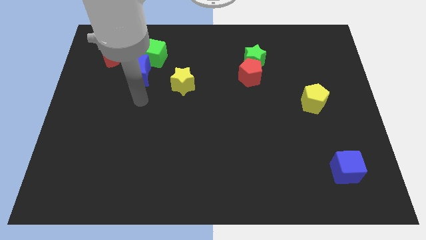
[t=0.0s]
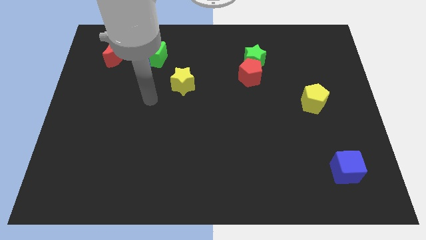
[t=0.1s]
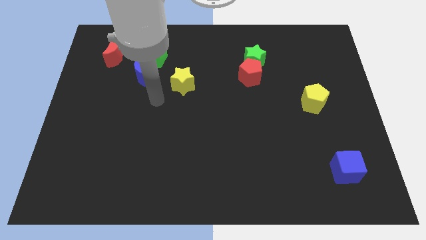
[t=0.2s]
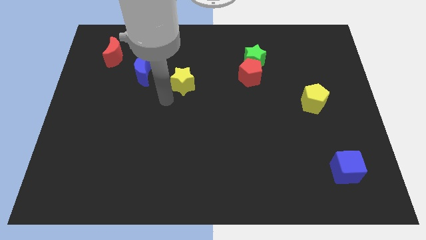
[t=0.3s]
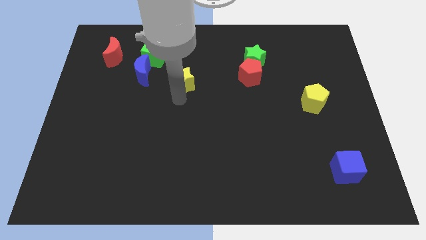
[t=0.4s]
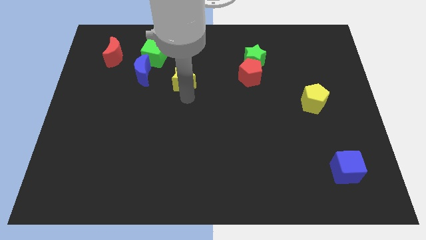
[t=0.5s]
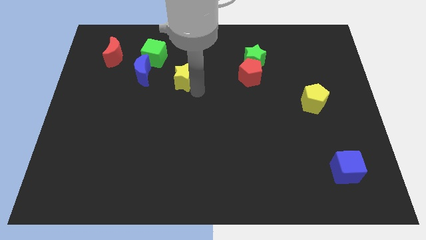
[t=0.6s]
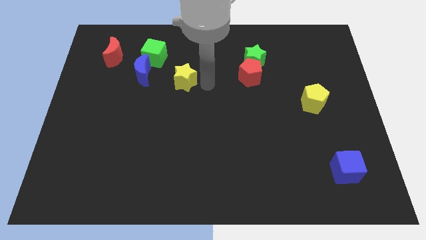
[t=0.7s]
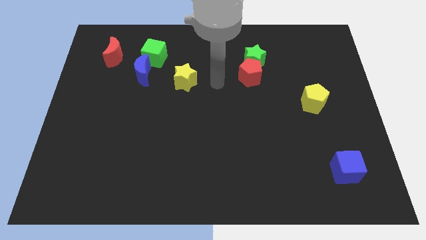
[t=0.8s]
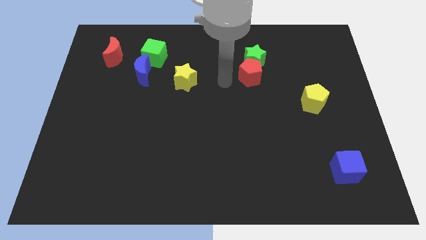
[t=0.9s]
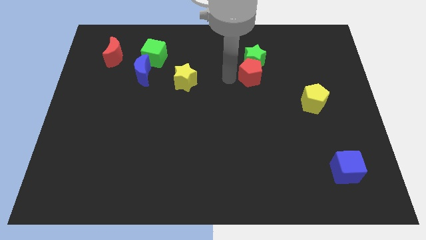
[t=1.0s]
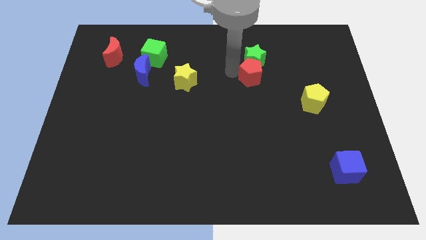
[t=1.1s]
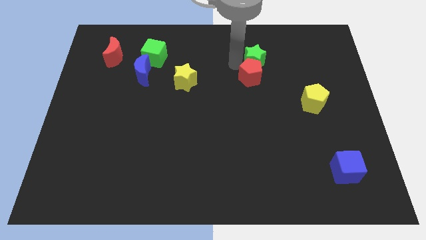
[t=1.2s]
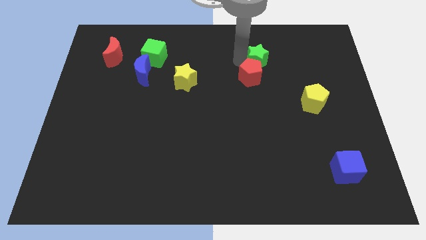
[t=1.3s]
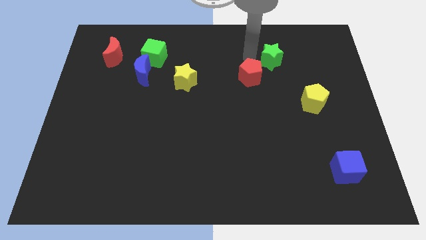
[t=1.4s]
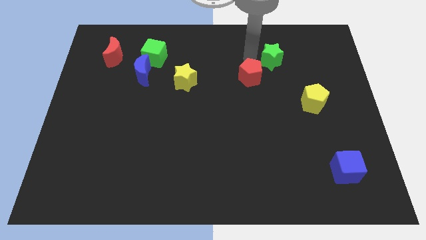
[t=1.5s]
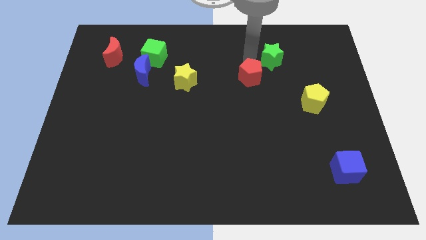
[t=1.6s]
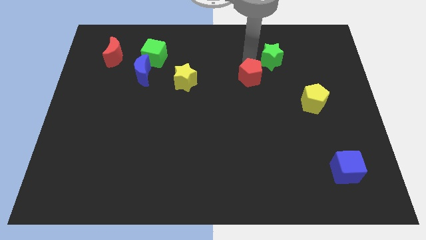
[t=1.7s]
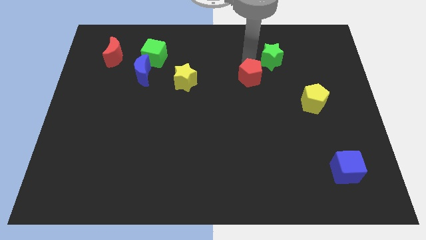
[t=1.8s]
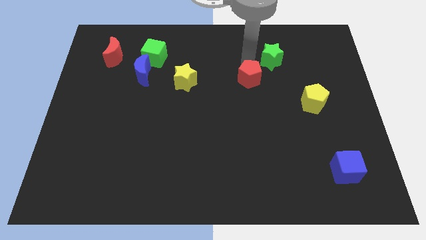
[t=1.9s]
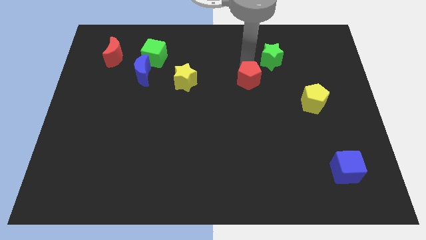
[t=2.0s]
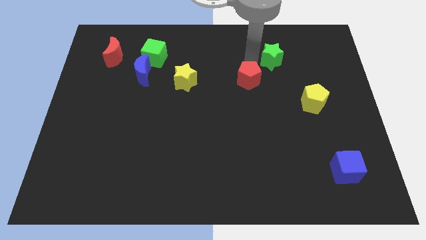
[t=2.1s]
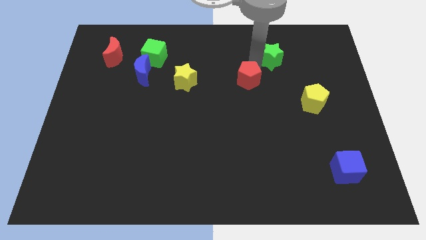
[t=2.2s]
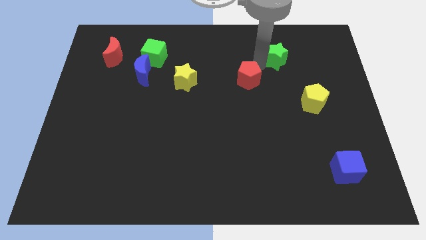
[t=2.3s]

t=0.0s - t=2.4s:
separate the red pentagon from the green star

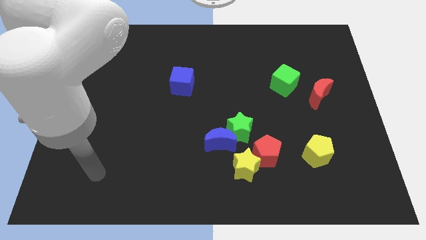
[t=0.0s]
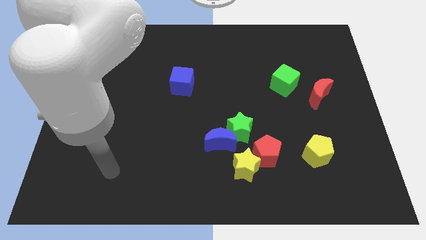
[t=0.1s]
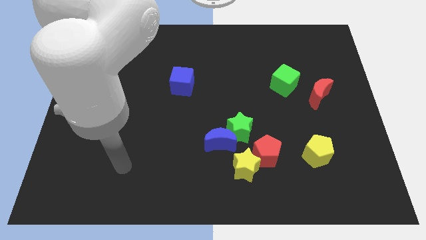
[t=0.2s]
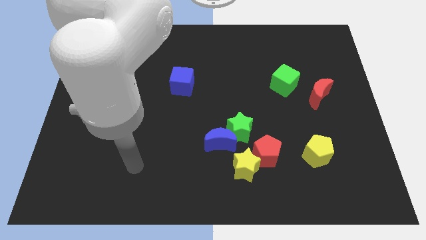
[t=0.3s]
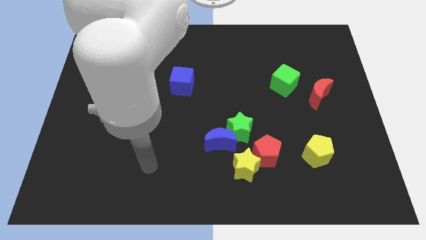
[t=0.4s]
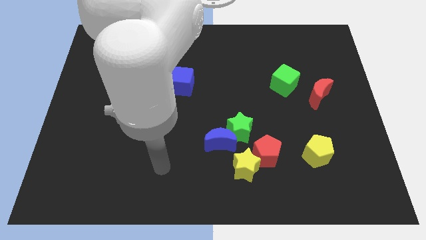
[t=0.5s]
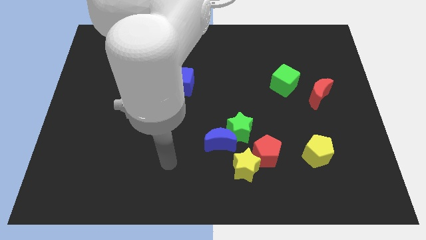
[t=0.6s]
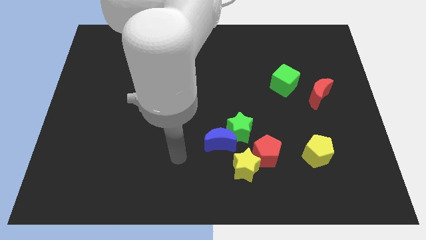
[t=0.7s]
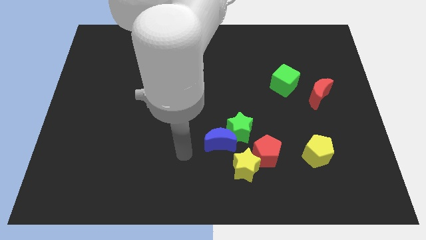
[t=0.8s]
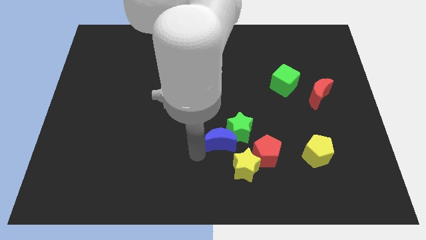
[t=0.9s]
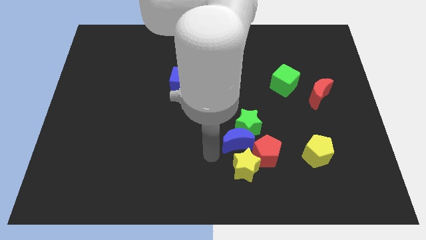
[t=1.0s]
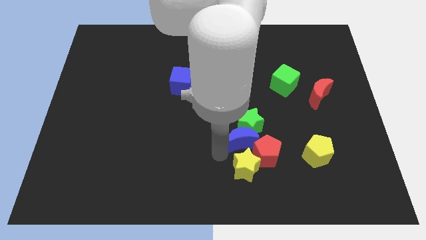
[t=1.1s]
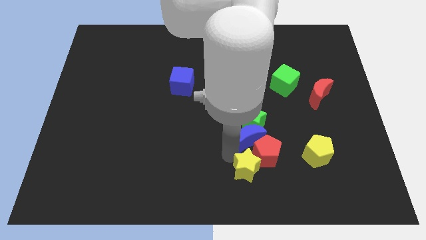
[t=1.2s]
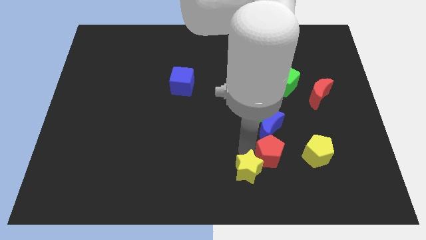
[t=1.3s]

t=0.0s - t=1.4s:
pull the green star apart from the blue moon, red pentagon, and yellow star

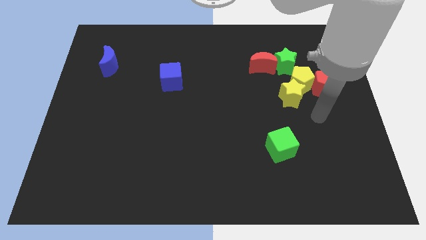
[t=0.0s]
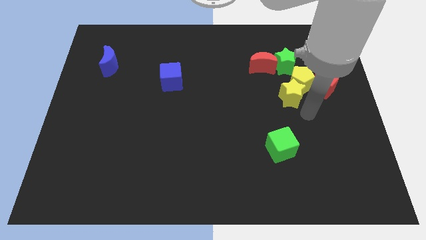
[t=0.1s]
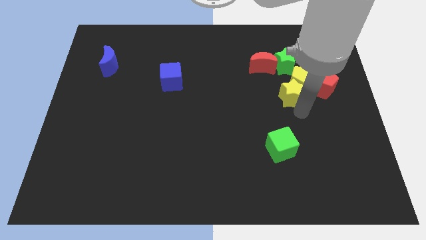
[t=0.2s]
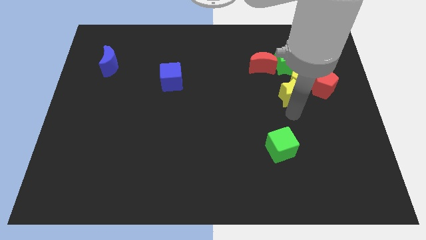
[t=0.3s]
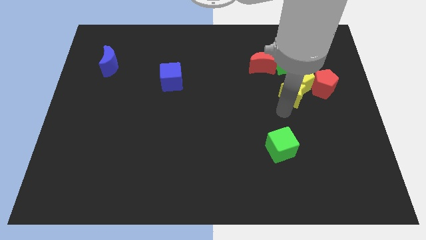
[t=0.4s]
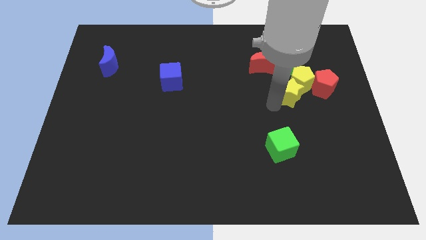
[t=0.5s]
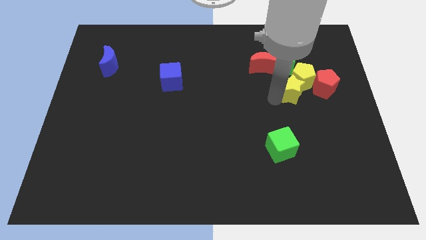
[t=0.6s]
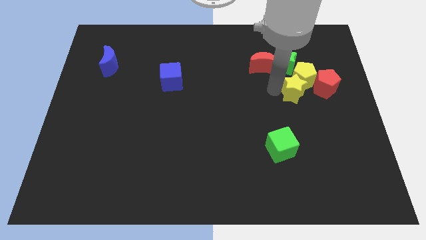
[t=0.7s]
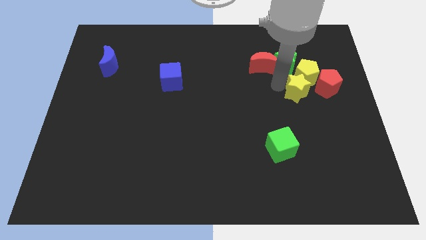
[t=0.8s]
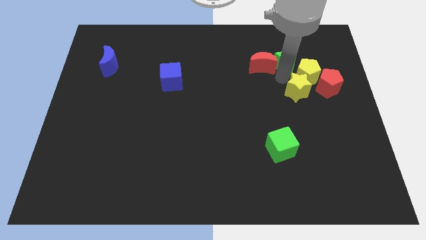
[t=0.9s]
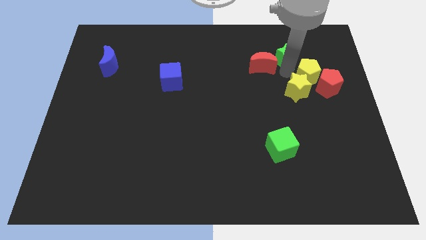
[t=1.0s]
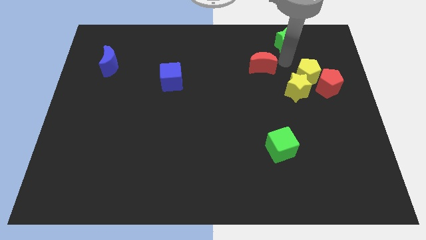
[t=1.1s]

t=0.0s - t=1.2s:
move the red moon away from the green star

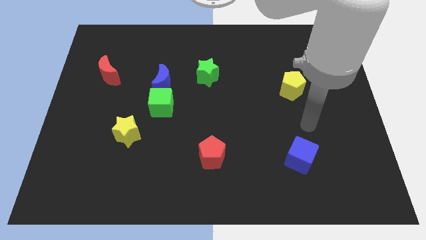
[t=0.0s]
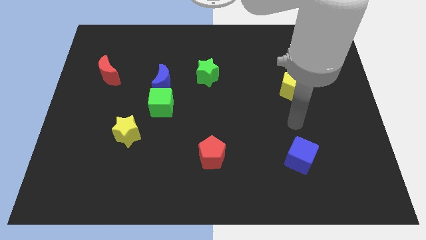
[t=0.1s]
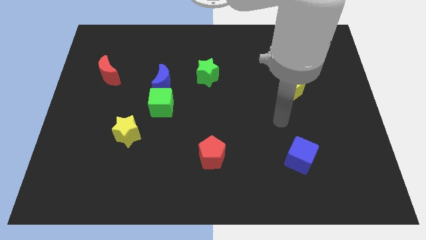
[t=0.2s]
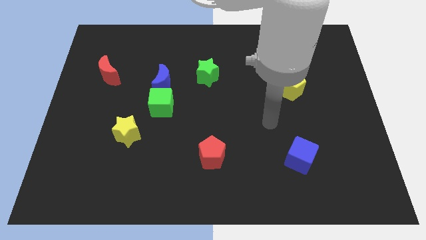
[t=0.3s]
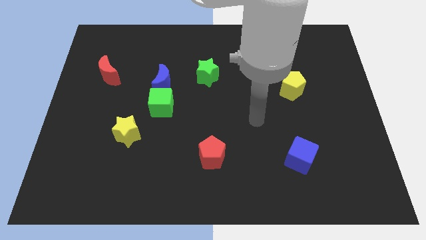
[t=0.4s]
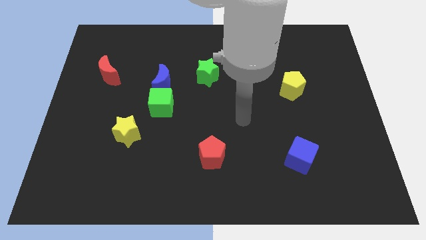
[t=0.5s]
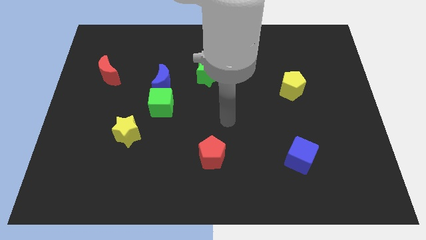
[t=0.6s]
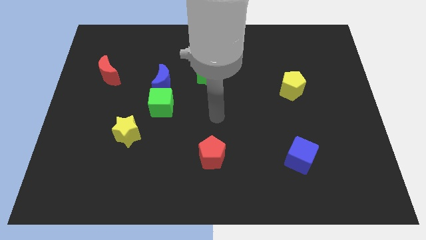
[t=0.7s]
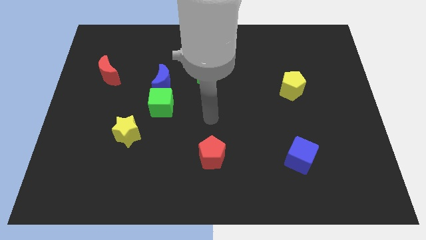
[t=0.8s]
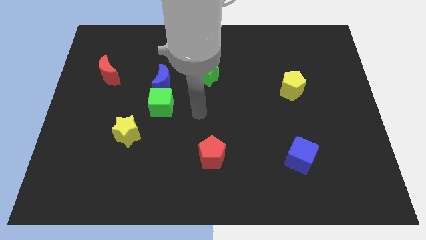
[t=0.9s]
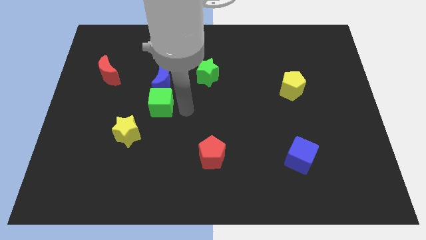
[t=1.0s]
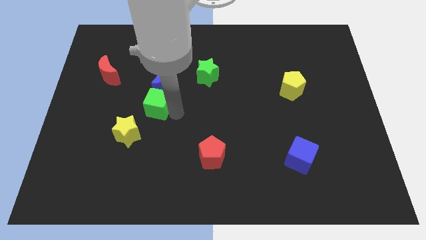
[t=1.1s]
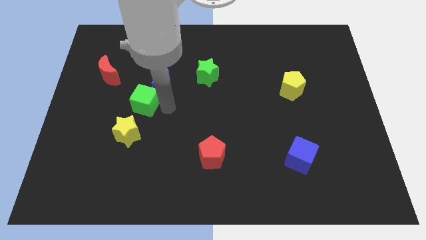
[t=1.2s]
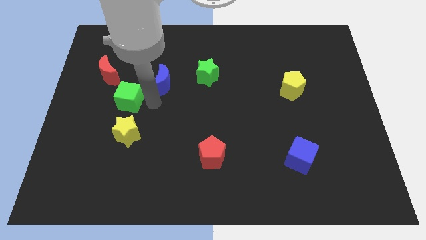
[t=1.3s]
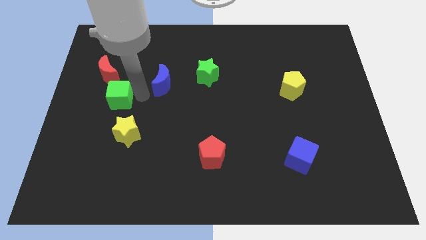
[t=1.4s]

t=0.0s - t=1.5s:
separate the blue moon from the green cube

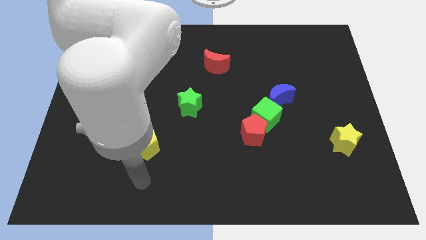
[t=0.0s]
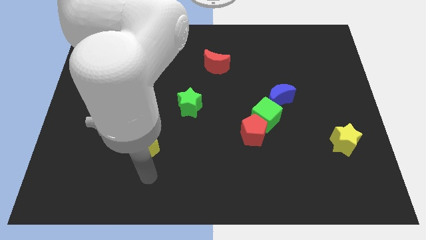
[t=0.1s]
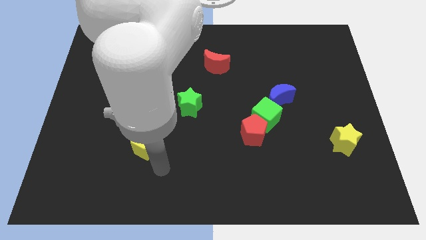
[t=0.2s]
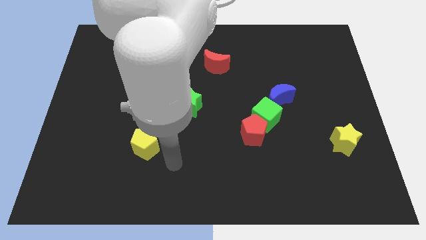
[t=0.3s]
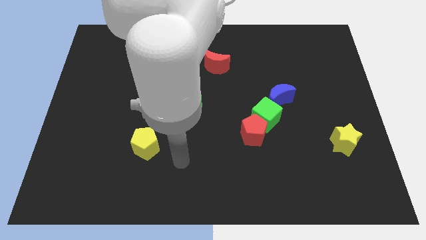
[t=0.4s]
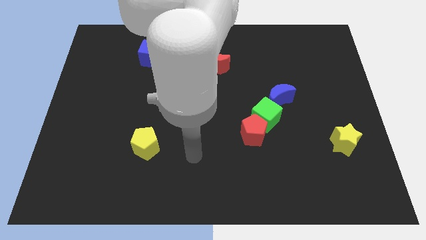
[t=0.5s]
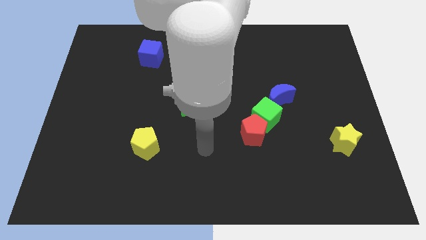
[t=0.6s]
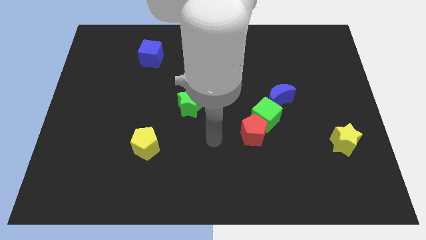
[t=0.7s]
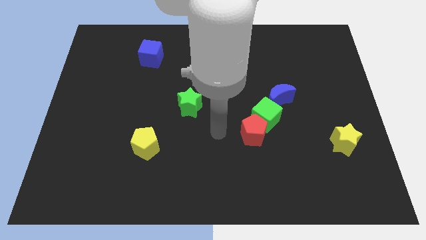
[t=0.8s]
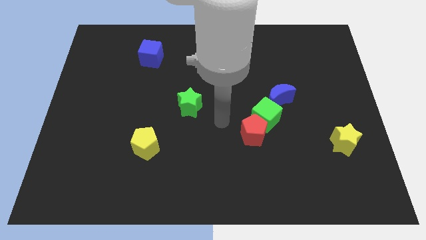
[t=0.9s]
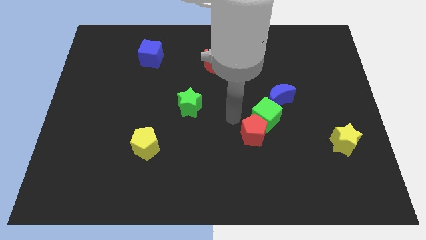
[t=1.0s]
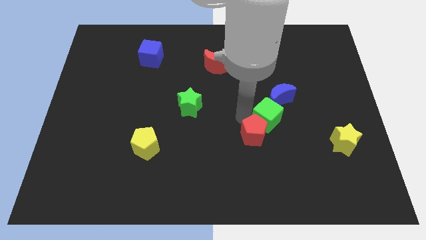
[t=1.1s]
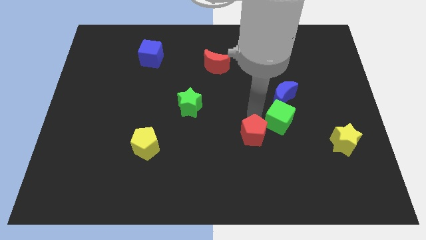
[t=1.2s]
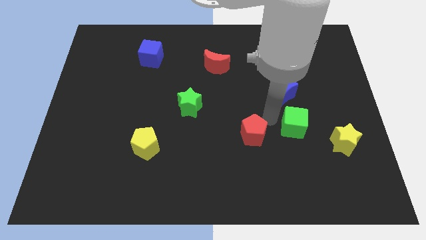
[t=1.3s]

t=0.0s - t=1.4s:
pull the red pentagon apart from the green cube

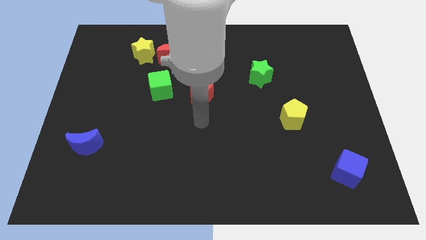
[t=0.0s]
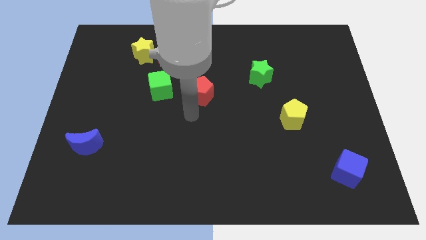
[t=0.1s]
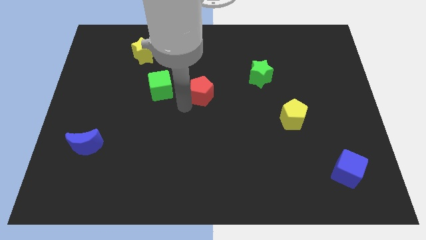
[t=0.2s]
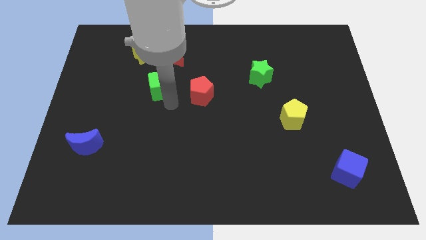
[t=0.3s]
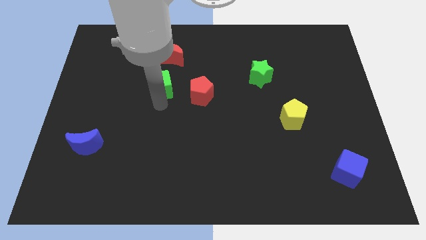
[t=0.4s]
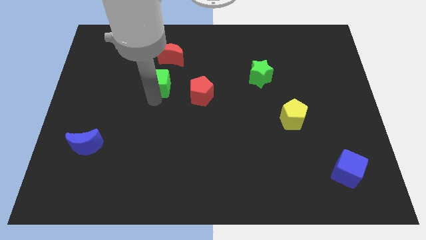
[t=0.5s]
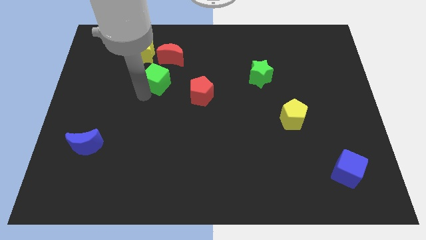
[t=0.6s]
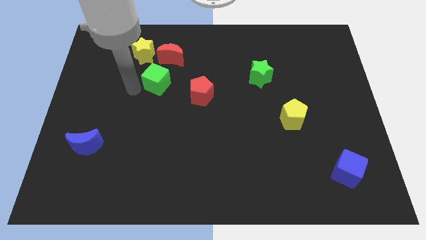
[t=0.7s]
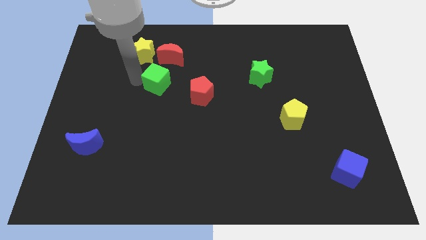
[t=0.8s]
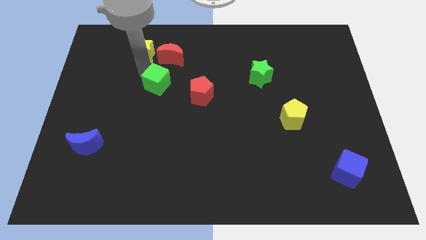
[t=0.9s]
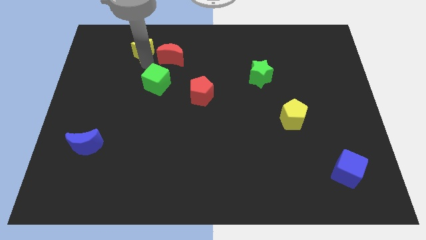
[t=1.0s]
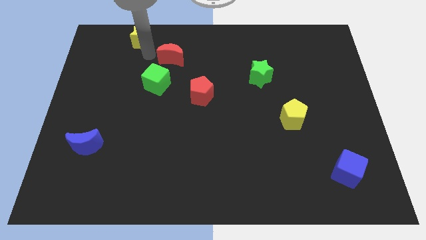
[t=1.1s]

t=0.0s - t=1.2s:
pull the red moon apart from the yellow star

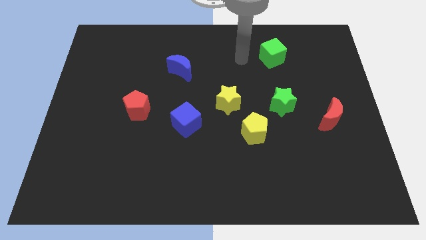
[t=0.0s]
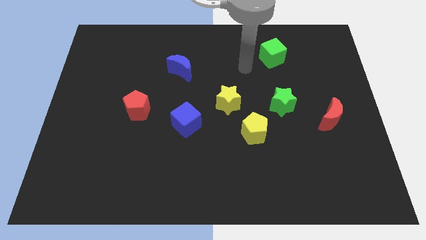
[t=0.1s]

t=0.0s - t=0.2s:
separate the yellow star from the yellow pentagon
